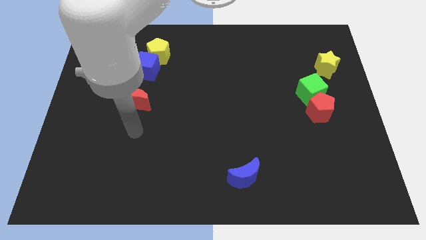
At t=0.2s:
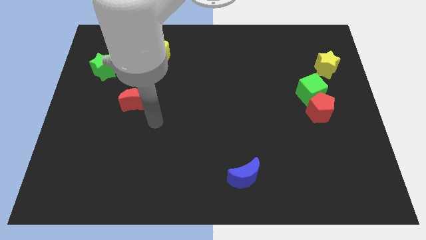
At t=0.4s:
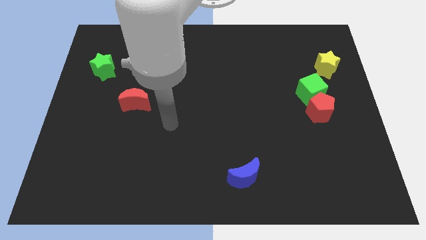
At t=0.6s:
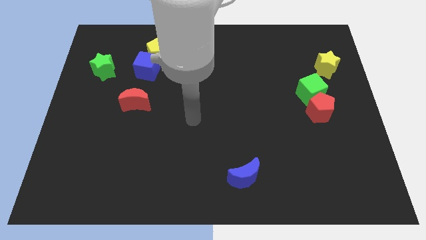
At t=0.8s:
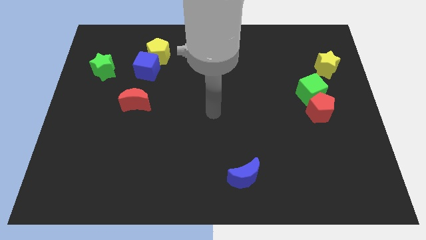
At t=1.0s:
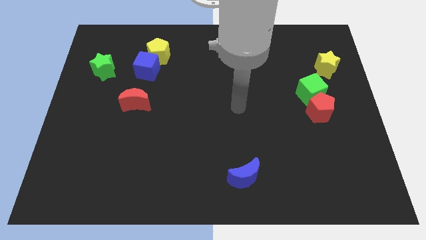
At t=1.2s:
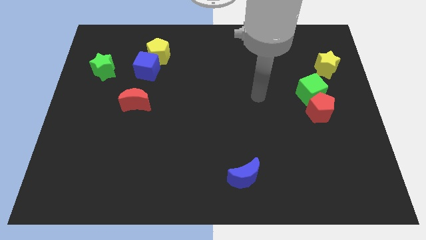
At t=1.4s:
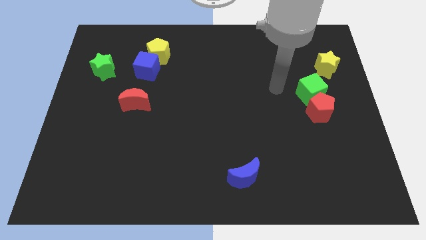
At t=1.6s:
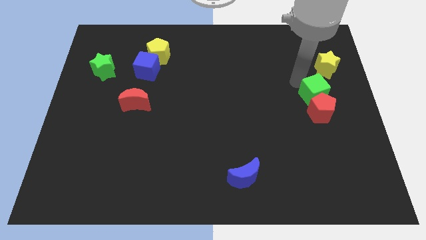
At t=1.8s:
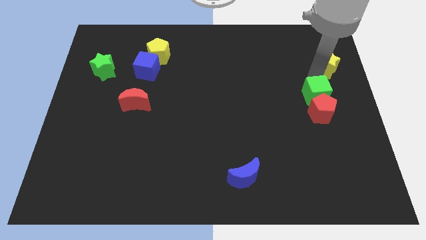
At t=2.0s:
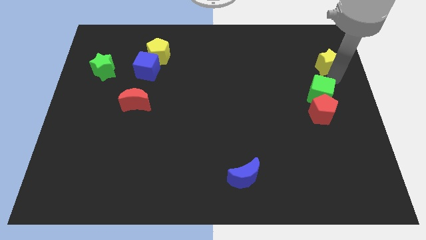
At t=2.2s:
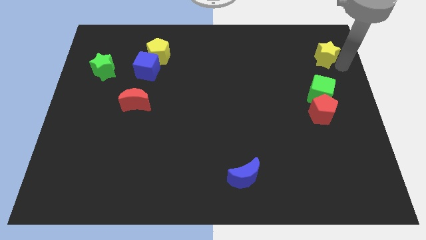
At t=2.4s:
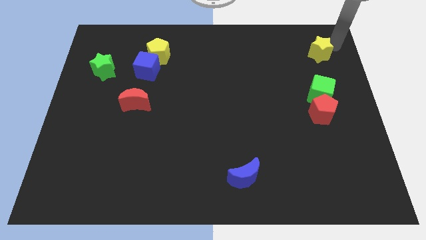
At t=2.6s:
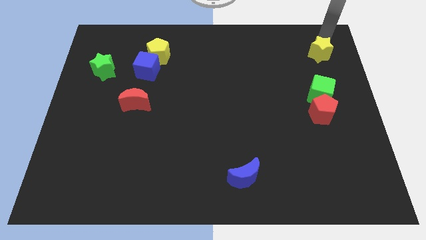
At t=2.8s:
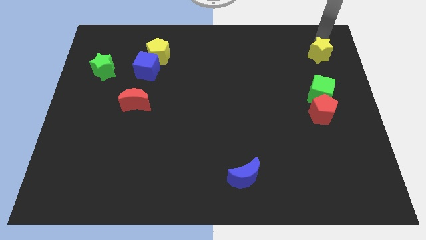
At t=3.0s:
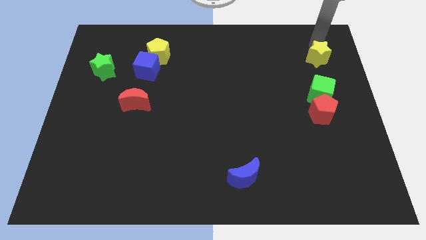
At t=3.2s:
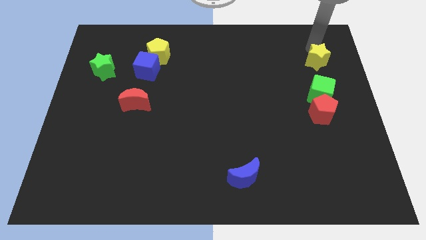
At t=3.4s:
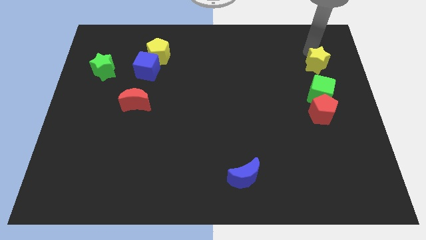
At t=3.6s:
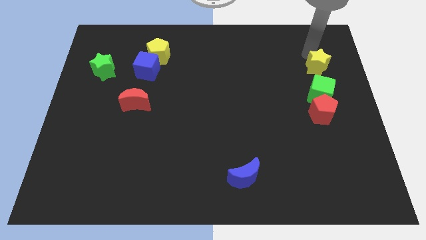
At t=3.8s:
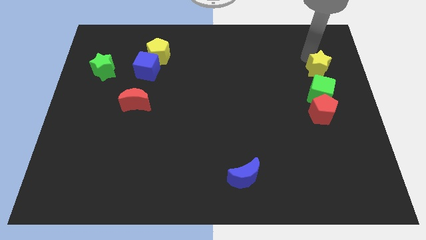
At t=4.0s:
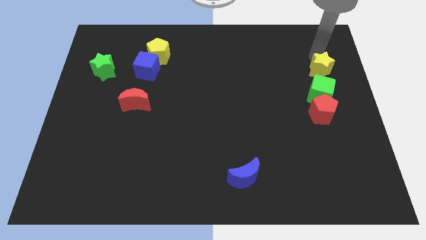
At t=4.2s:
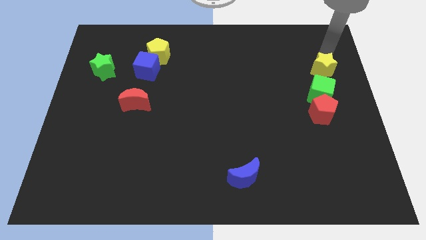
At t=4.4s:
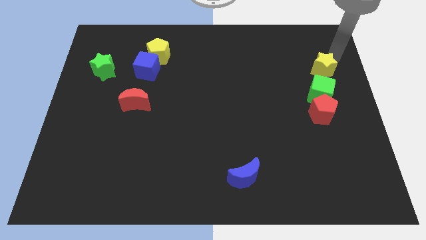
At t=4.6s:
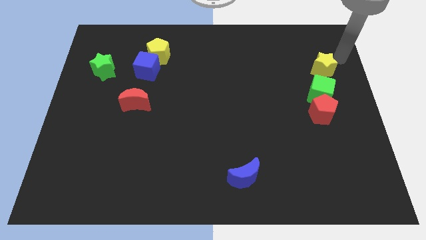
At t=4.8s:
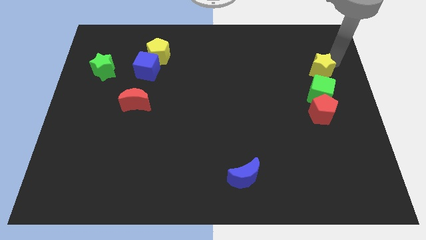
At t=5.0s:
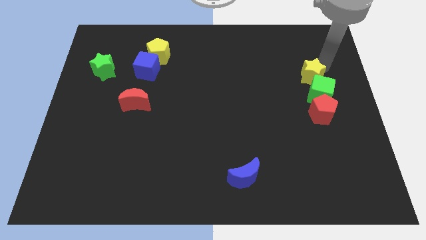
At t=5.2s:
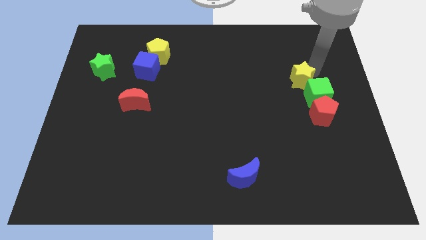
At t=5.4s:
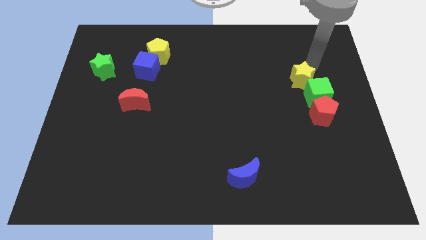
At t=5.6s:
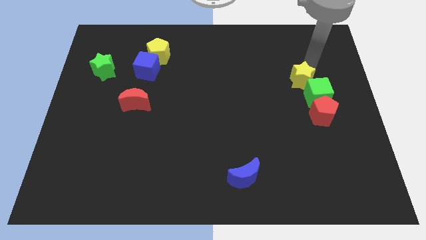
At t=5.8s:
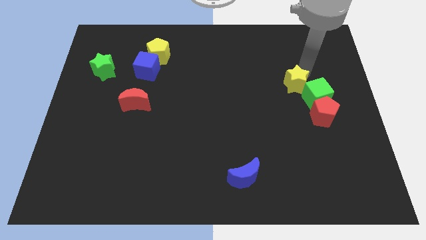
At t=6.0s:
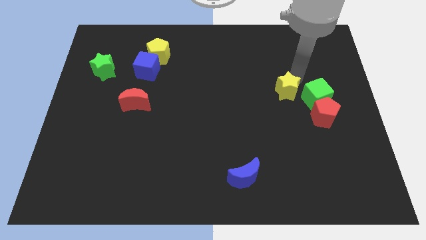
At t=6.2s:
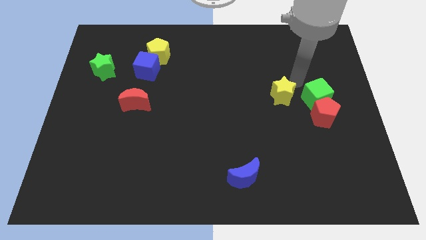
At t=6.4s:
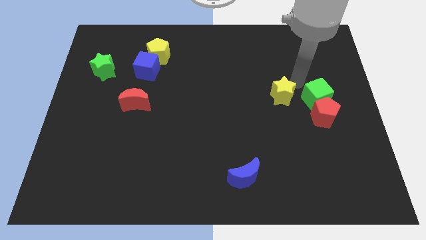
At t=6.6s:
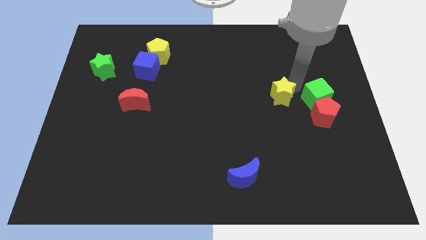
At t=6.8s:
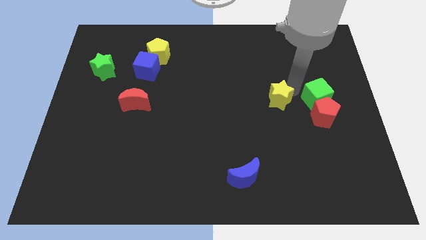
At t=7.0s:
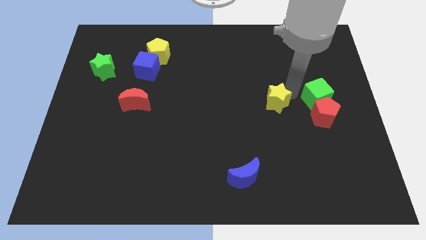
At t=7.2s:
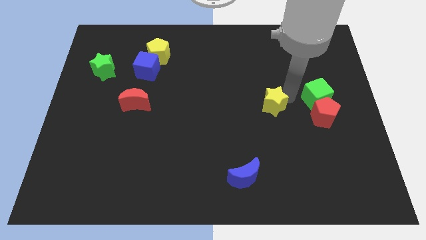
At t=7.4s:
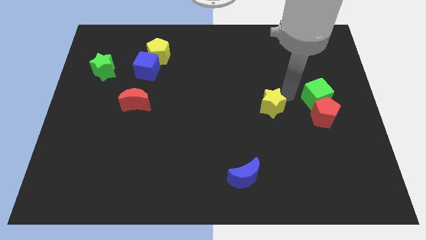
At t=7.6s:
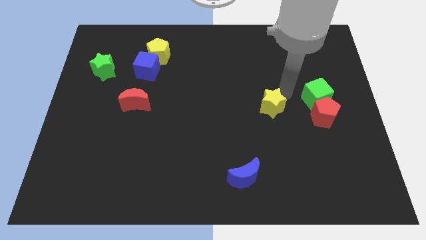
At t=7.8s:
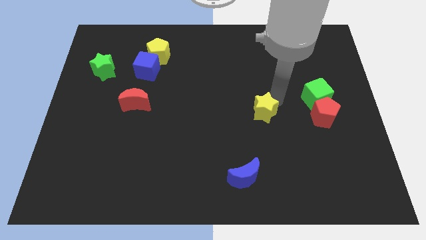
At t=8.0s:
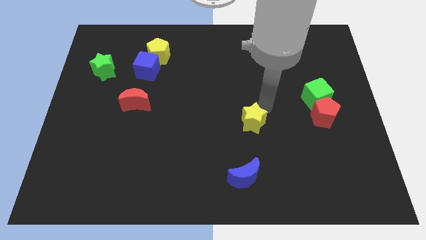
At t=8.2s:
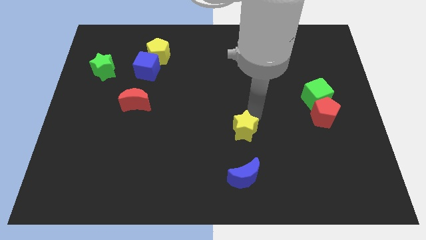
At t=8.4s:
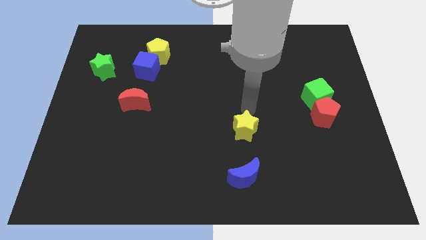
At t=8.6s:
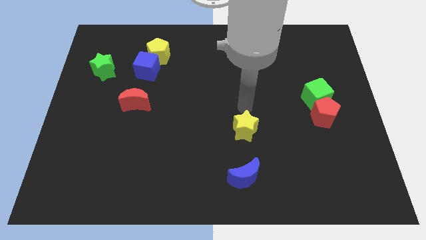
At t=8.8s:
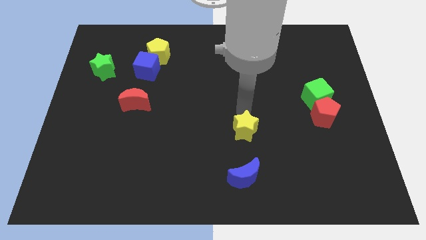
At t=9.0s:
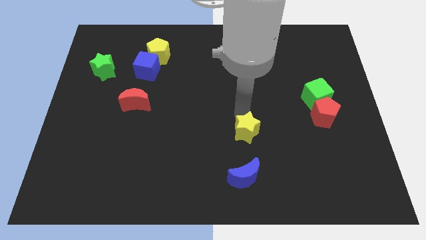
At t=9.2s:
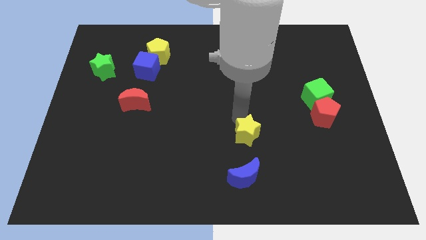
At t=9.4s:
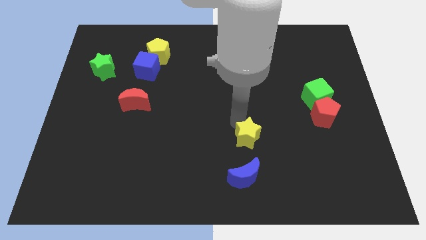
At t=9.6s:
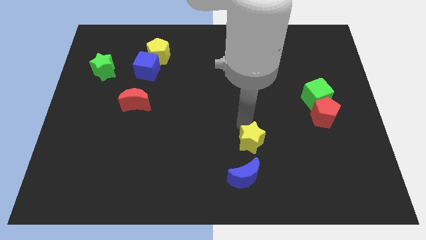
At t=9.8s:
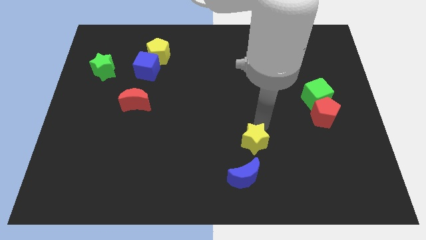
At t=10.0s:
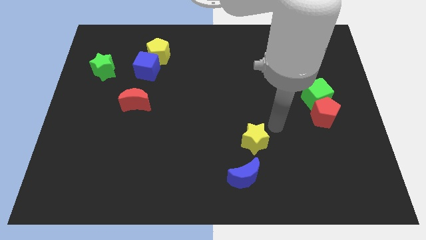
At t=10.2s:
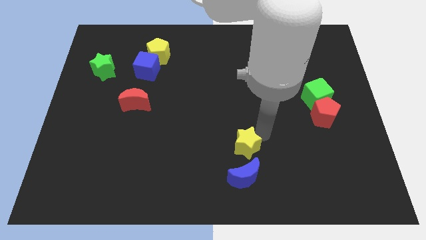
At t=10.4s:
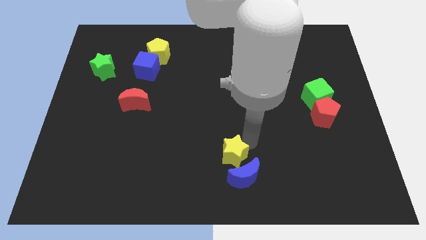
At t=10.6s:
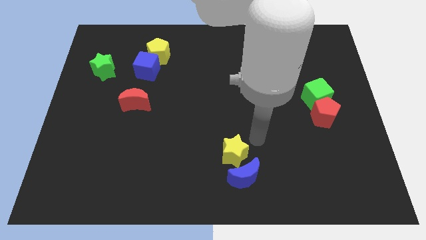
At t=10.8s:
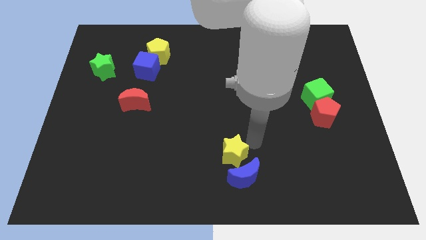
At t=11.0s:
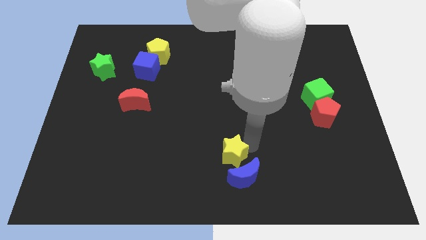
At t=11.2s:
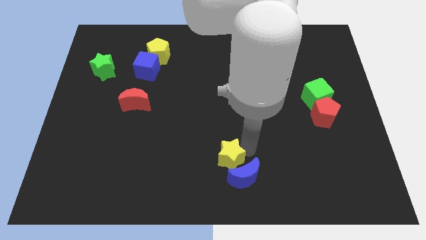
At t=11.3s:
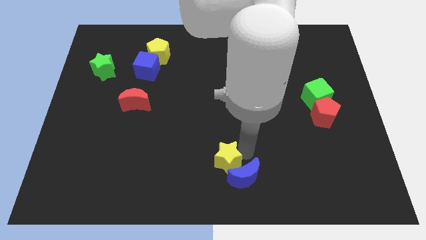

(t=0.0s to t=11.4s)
push the yellow star to the left side of the blue moon

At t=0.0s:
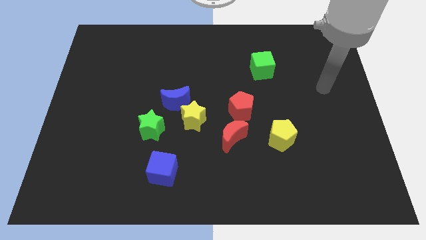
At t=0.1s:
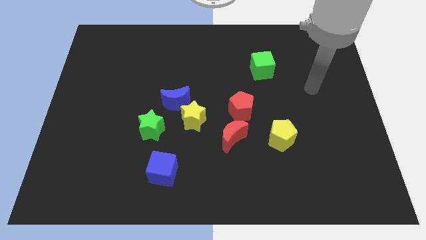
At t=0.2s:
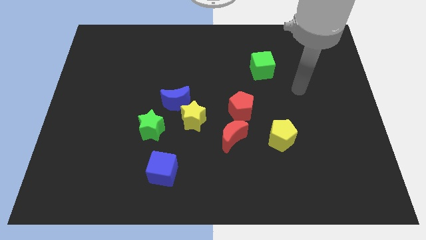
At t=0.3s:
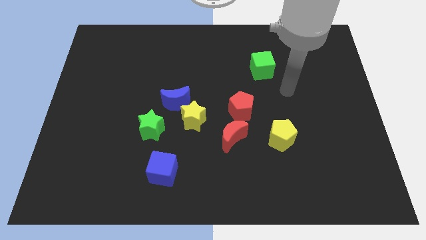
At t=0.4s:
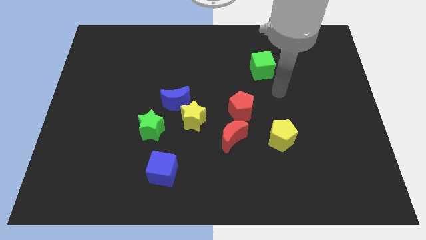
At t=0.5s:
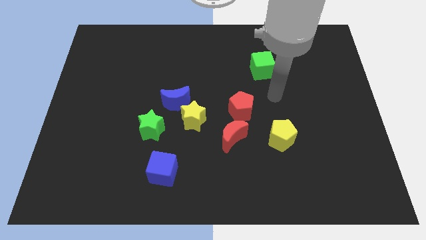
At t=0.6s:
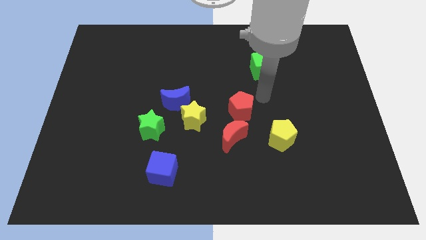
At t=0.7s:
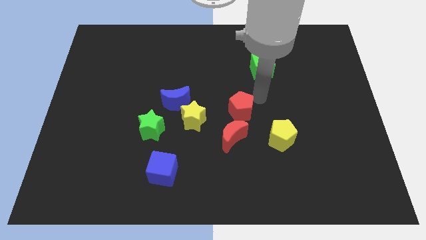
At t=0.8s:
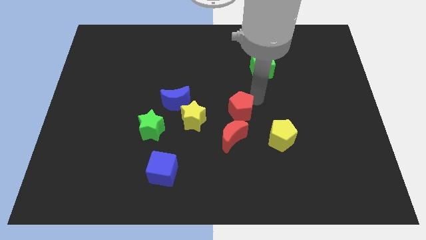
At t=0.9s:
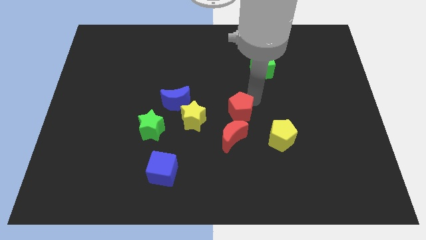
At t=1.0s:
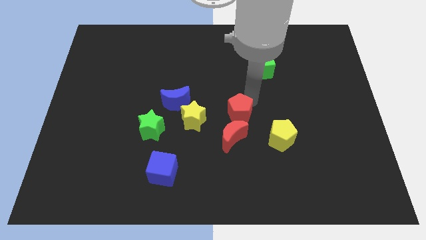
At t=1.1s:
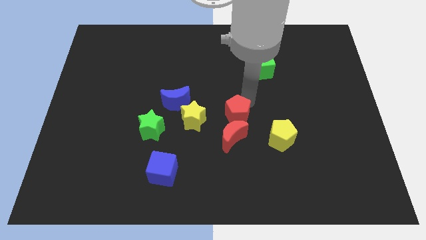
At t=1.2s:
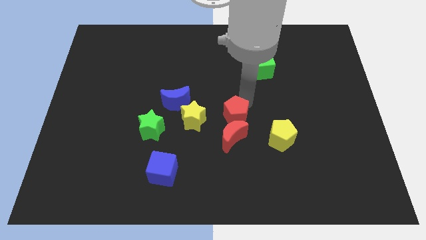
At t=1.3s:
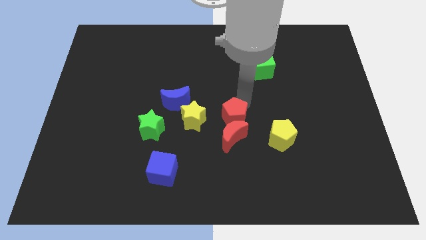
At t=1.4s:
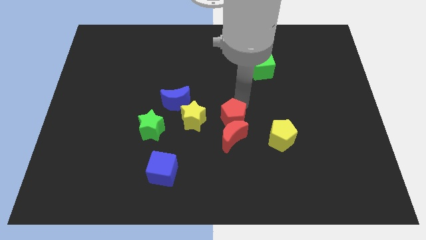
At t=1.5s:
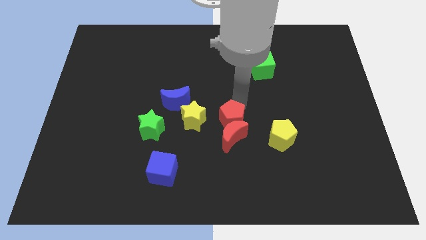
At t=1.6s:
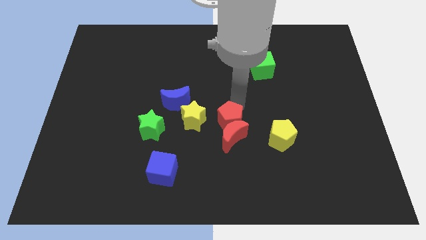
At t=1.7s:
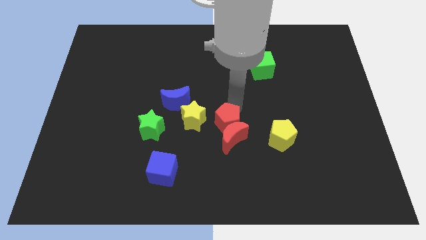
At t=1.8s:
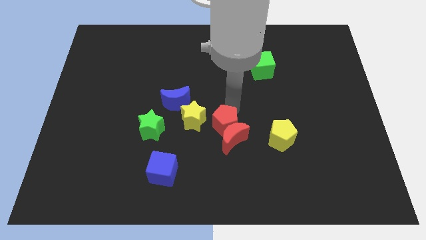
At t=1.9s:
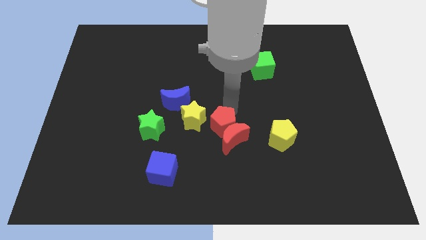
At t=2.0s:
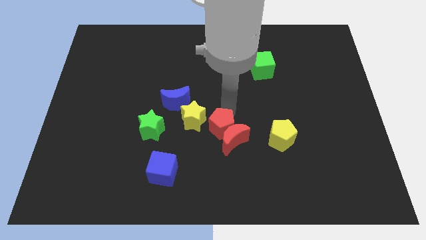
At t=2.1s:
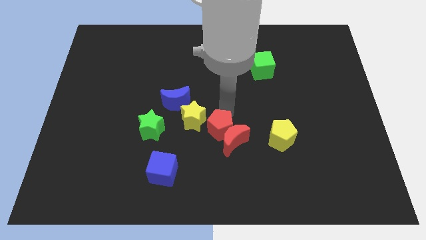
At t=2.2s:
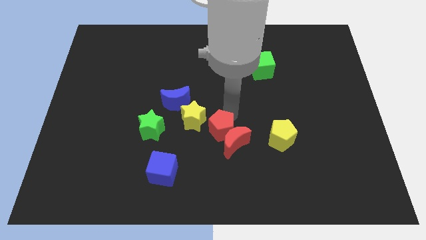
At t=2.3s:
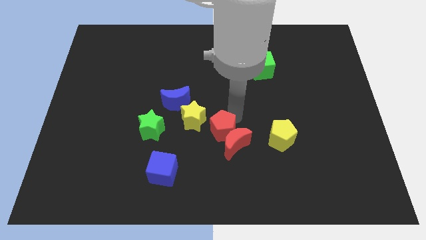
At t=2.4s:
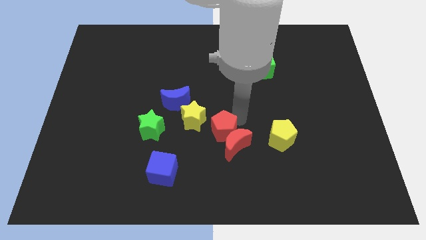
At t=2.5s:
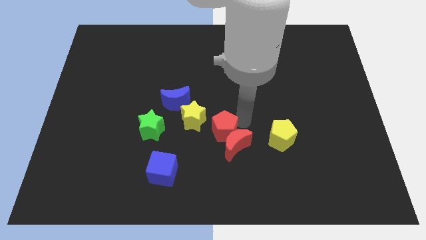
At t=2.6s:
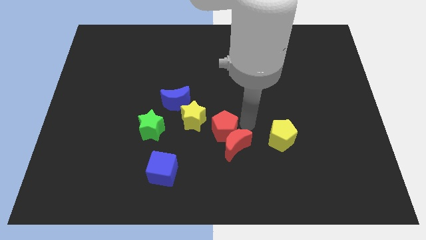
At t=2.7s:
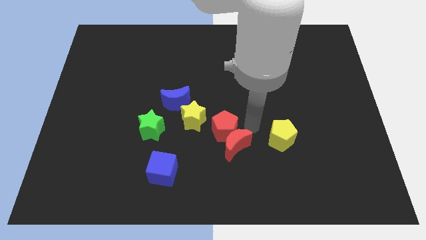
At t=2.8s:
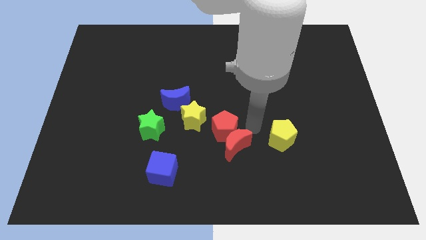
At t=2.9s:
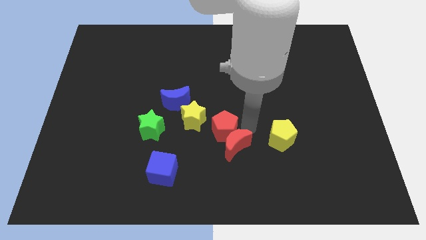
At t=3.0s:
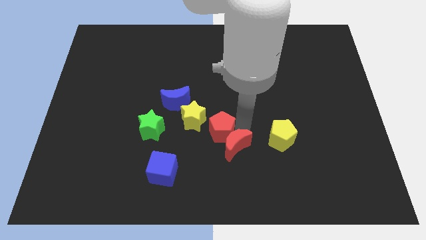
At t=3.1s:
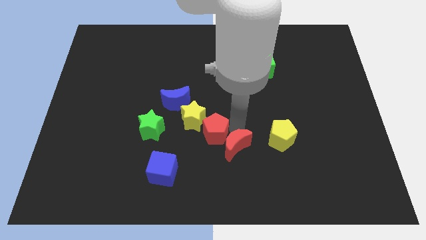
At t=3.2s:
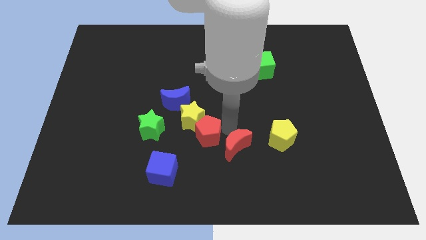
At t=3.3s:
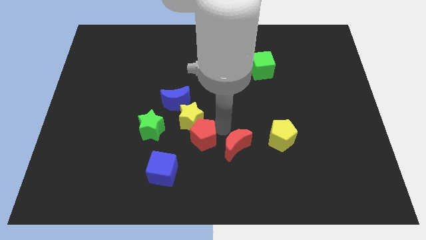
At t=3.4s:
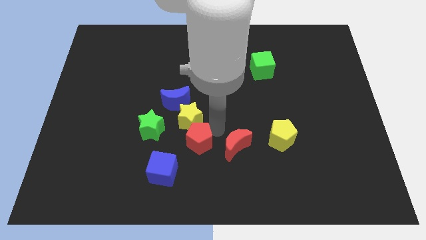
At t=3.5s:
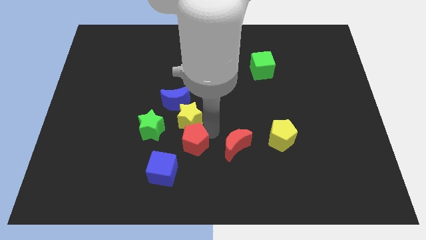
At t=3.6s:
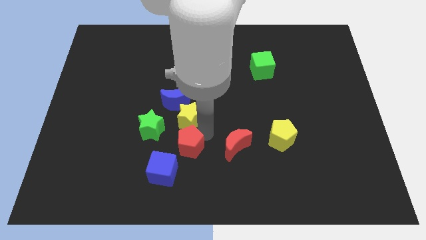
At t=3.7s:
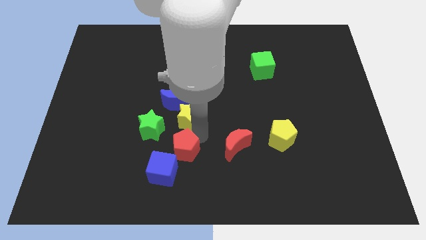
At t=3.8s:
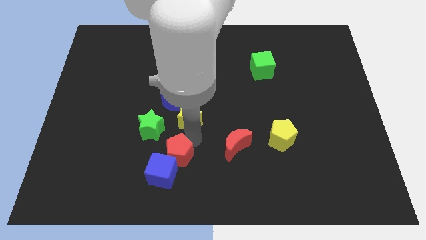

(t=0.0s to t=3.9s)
move the red pentagon right of the blue cube
